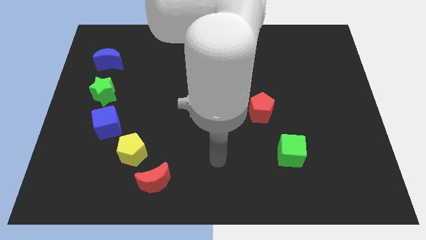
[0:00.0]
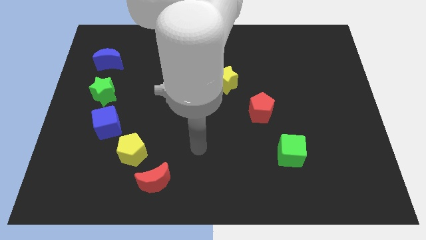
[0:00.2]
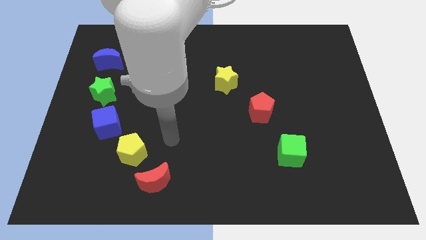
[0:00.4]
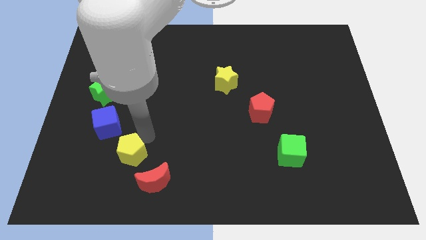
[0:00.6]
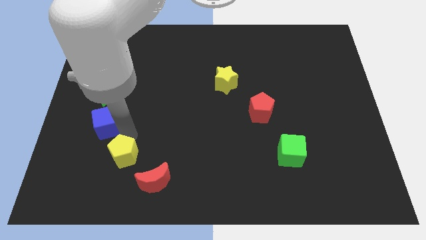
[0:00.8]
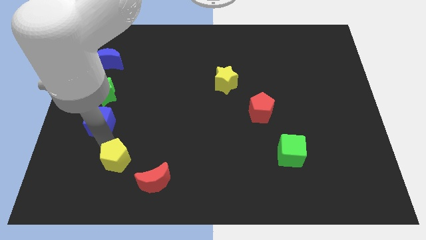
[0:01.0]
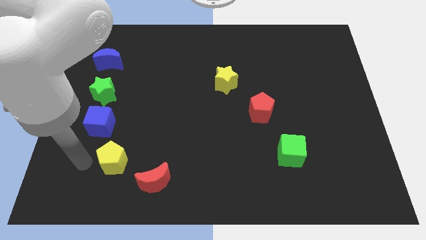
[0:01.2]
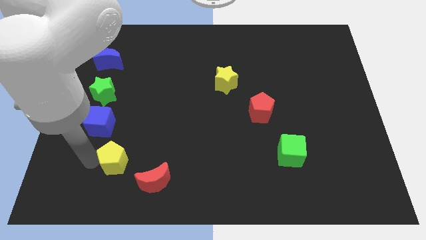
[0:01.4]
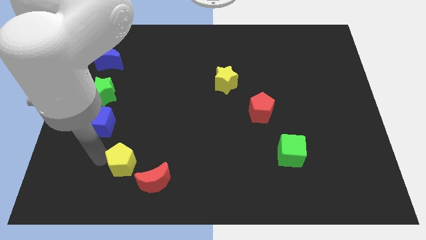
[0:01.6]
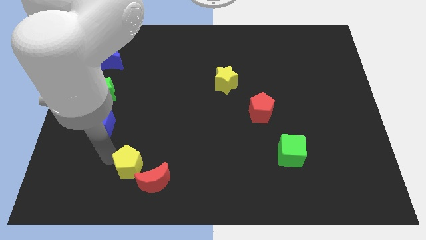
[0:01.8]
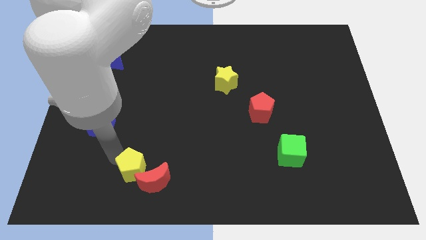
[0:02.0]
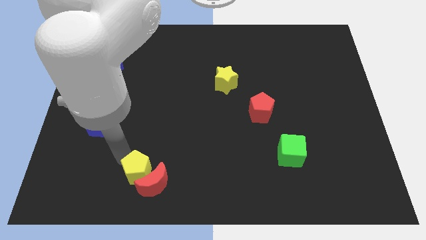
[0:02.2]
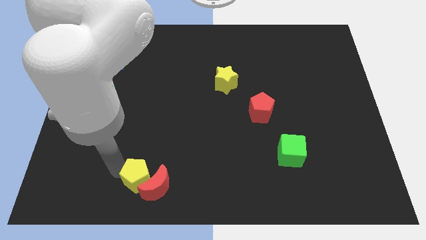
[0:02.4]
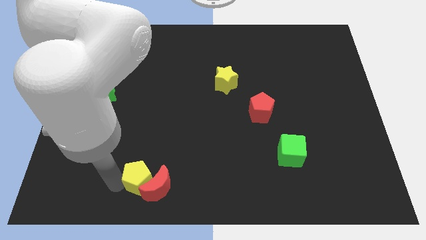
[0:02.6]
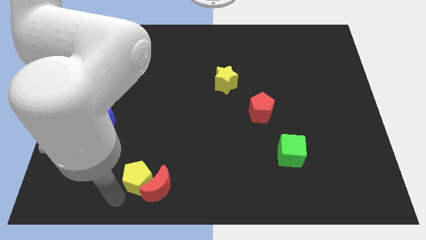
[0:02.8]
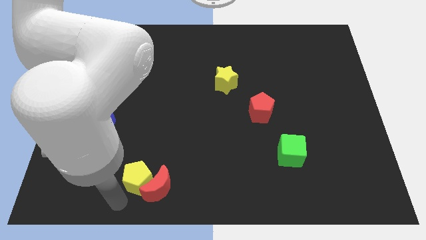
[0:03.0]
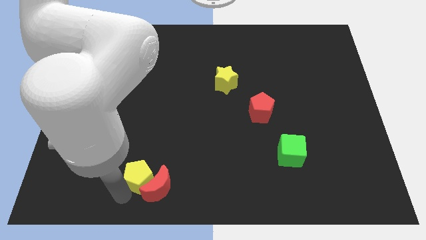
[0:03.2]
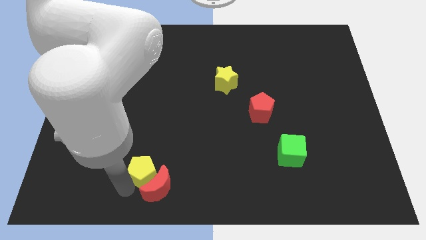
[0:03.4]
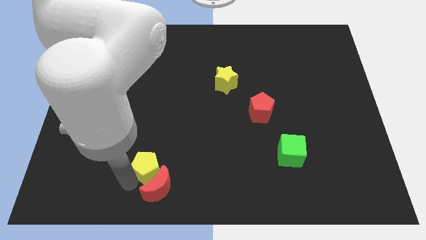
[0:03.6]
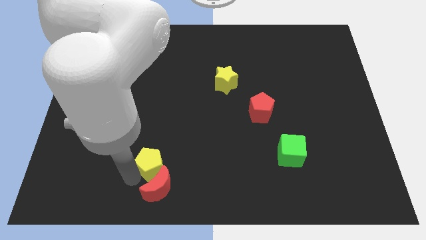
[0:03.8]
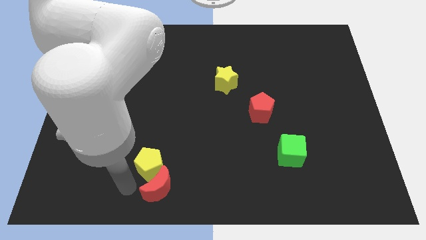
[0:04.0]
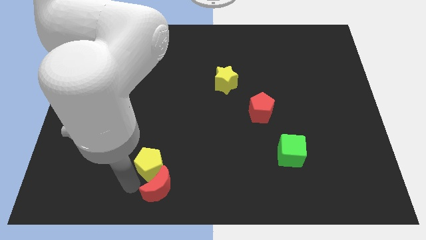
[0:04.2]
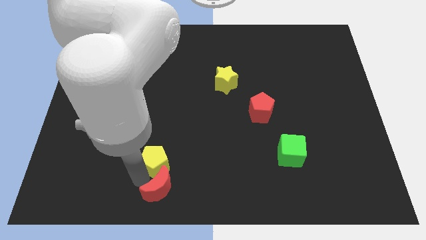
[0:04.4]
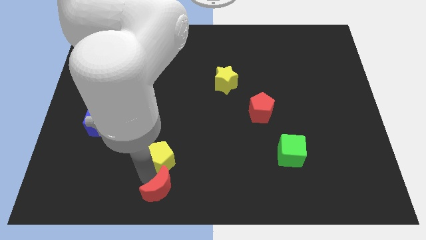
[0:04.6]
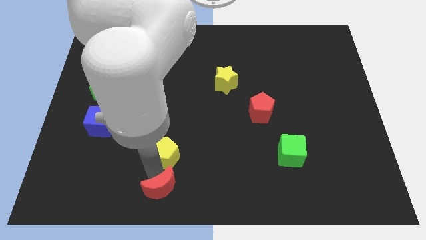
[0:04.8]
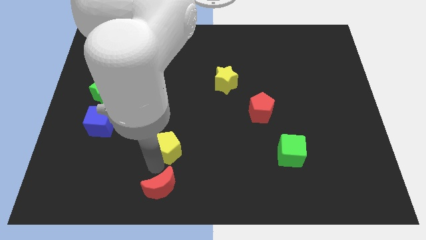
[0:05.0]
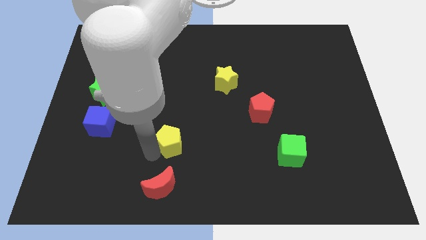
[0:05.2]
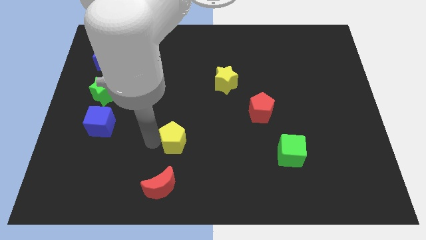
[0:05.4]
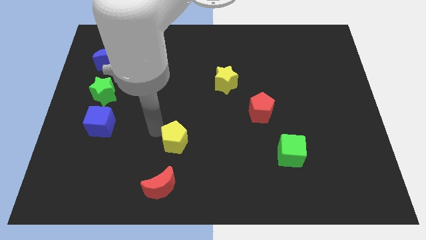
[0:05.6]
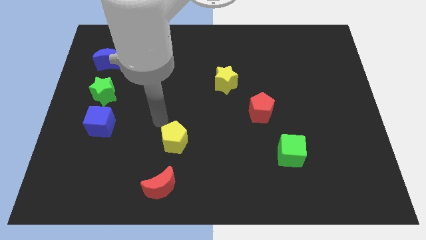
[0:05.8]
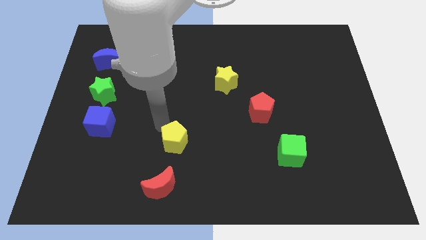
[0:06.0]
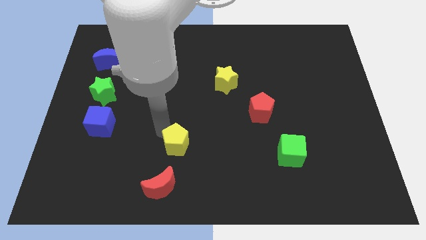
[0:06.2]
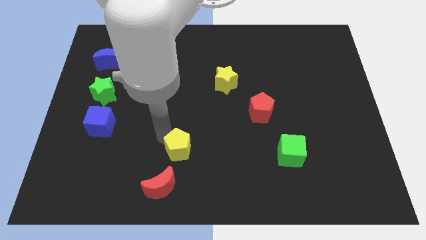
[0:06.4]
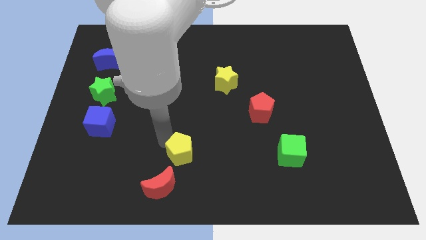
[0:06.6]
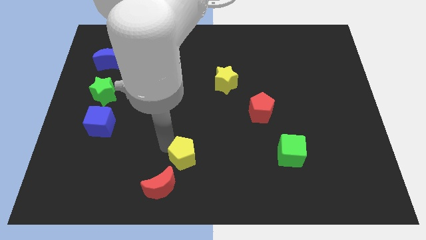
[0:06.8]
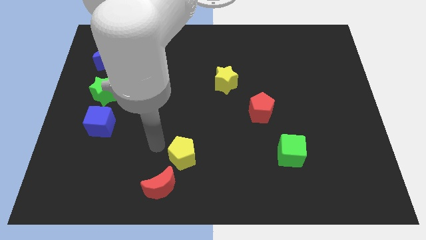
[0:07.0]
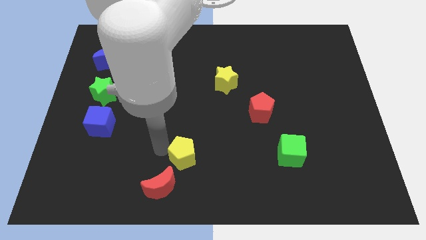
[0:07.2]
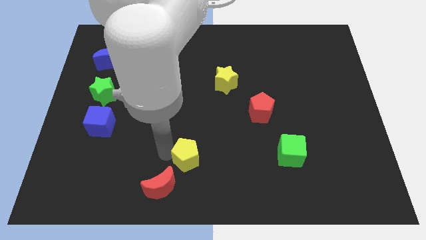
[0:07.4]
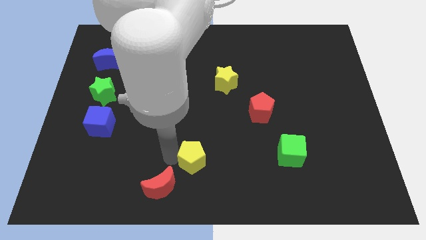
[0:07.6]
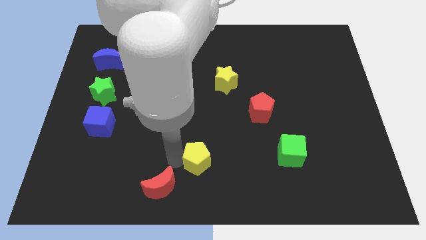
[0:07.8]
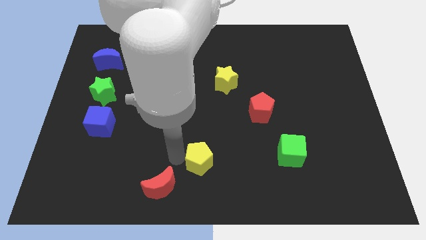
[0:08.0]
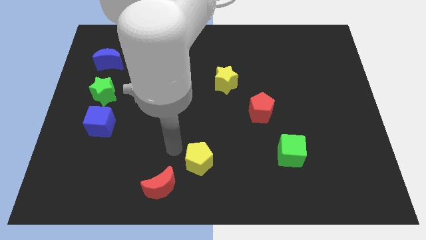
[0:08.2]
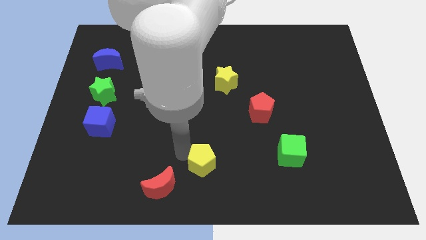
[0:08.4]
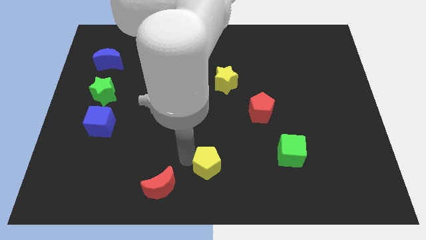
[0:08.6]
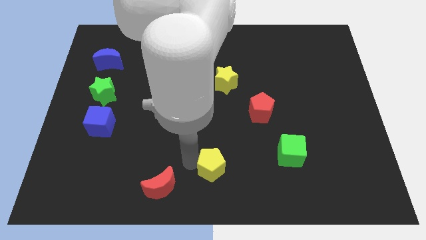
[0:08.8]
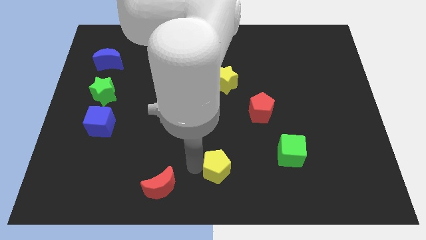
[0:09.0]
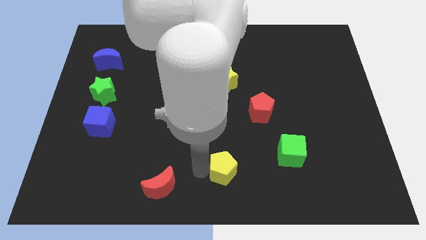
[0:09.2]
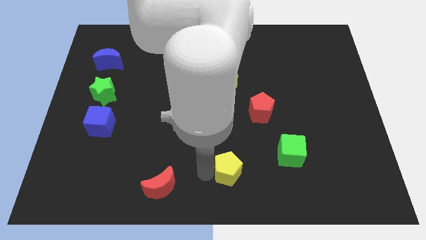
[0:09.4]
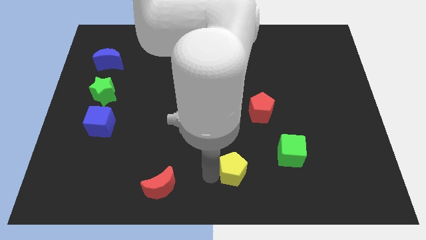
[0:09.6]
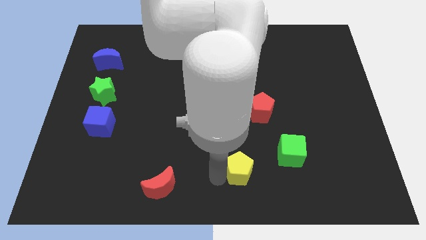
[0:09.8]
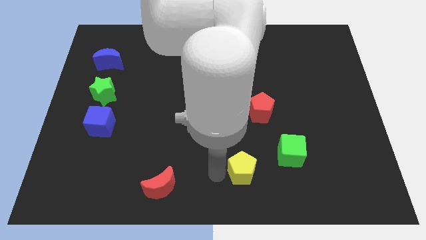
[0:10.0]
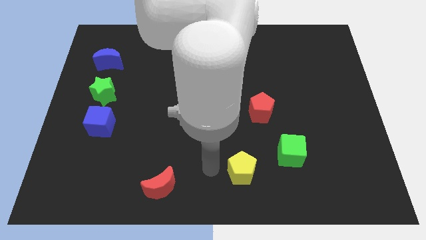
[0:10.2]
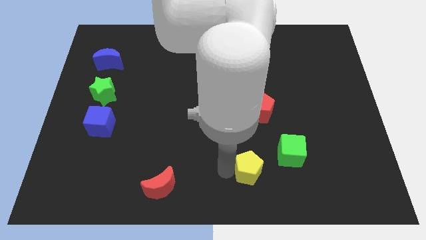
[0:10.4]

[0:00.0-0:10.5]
put the yellow pentagon to the bottom left side of the green cube

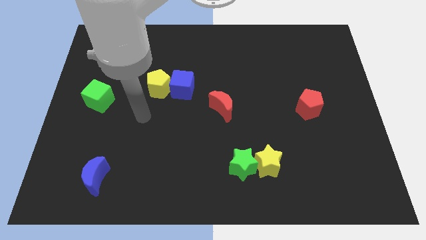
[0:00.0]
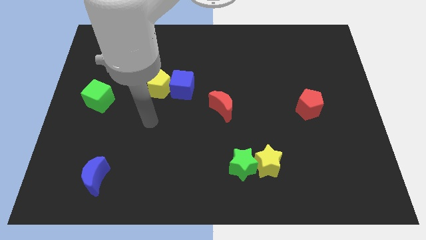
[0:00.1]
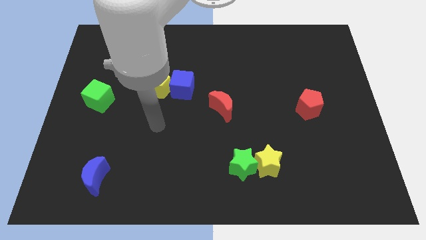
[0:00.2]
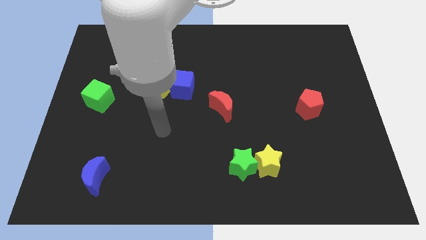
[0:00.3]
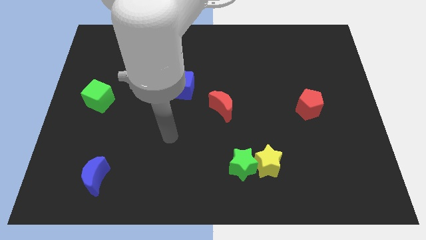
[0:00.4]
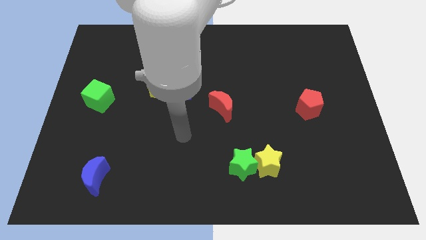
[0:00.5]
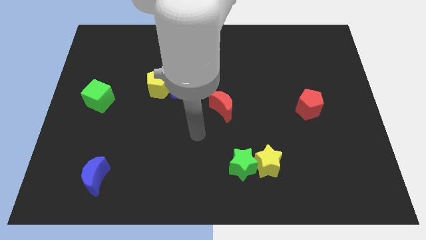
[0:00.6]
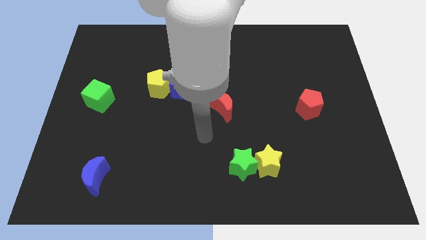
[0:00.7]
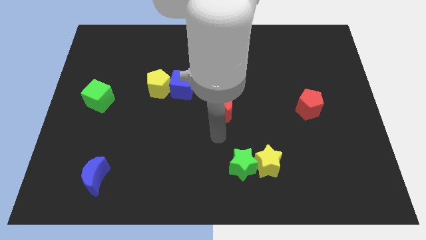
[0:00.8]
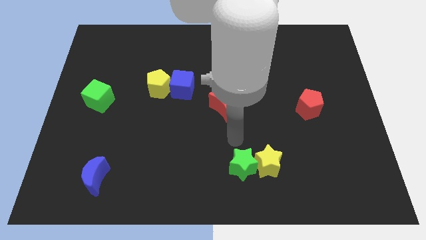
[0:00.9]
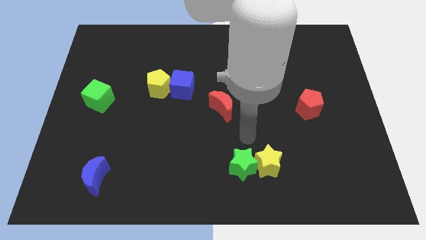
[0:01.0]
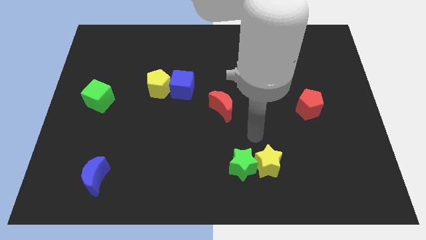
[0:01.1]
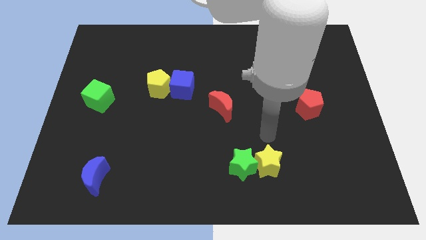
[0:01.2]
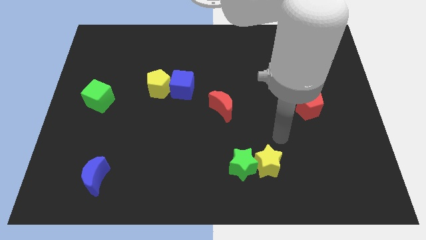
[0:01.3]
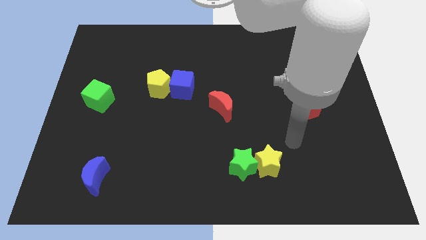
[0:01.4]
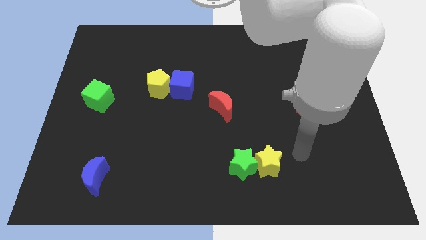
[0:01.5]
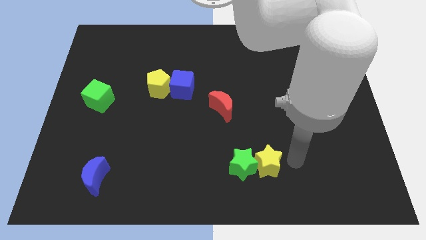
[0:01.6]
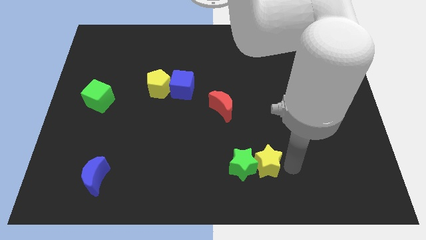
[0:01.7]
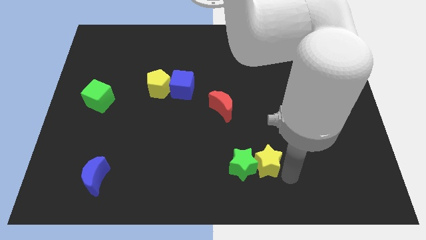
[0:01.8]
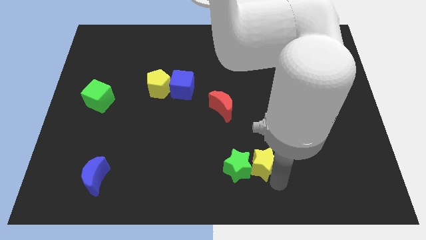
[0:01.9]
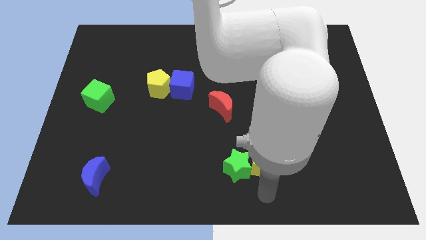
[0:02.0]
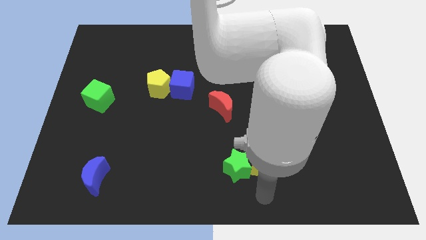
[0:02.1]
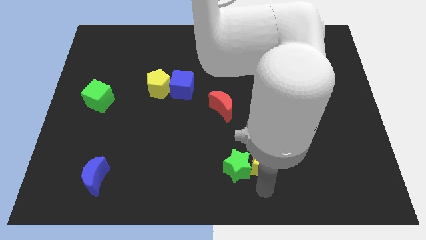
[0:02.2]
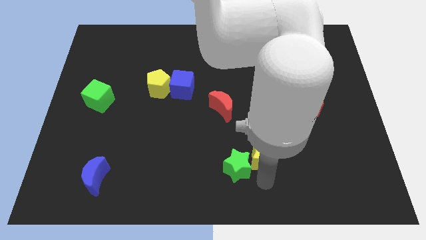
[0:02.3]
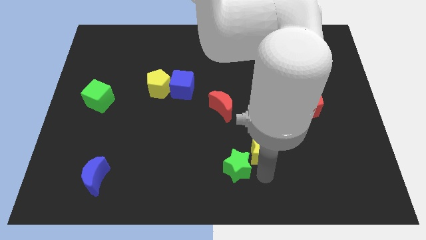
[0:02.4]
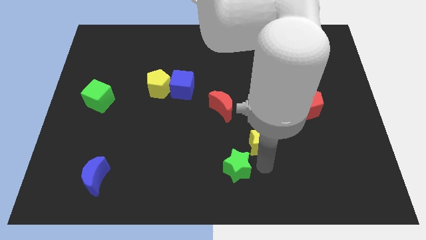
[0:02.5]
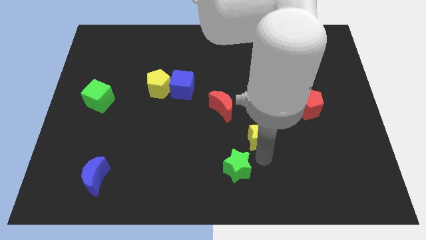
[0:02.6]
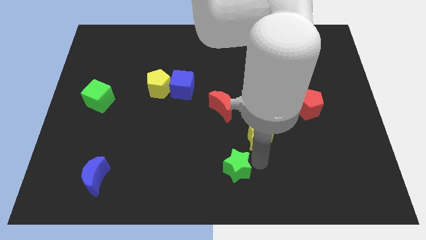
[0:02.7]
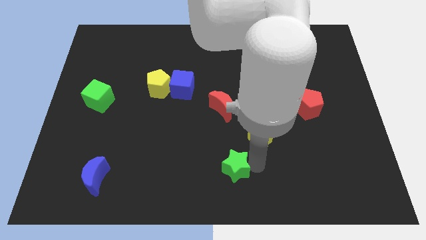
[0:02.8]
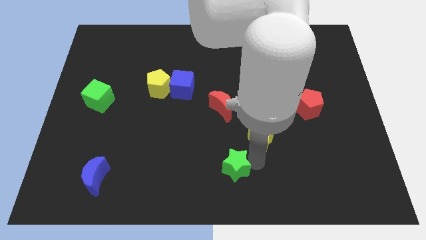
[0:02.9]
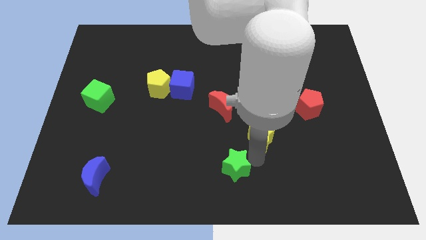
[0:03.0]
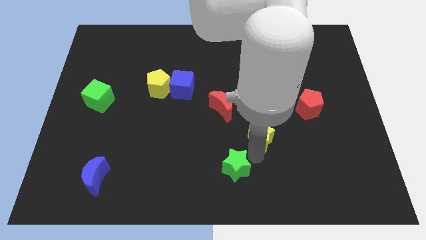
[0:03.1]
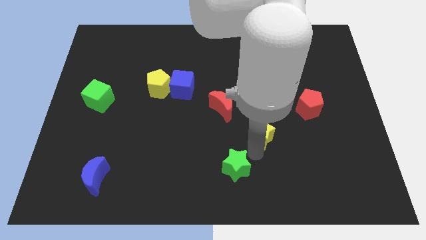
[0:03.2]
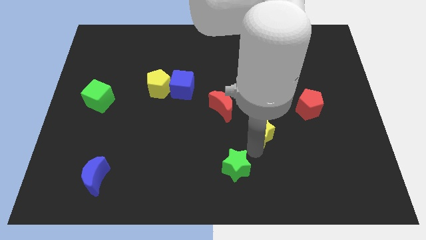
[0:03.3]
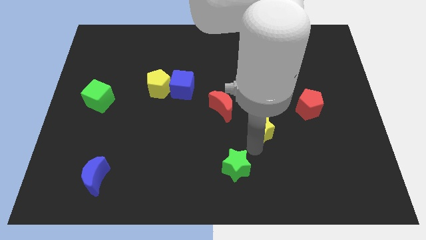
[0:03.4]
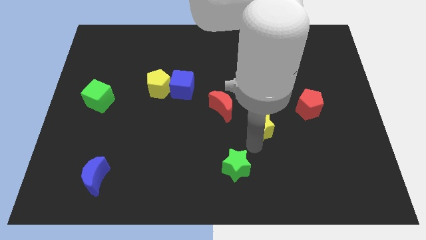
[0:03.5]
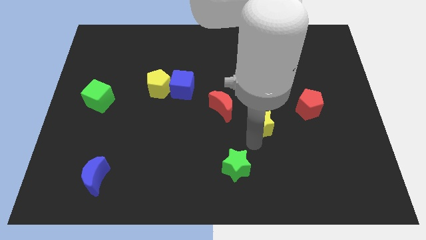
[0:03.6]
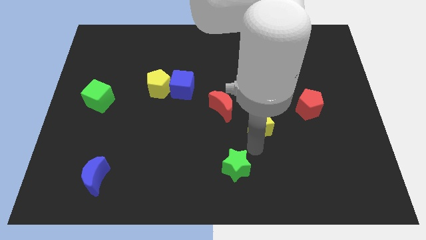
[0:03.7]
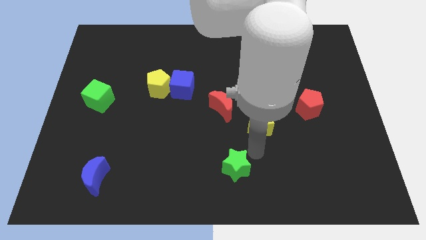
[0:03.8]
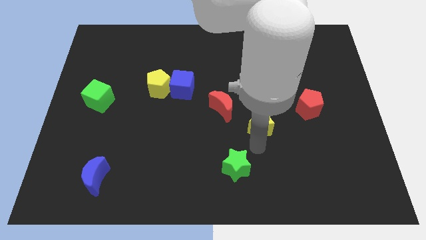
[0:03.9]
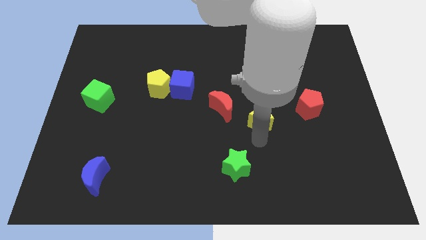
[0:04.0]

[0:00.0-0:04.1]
move the yellow star just right of the red moon
